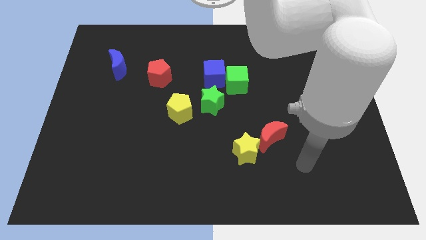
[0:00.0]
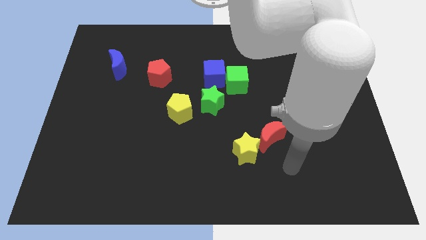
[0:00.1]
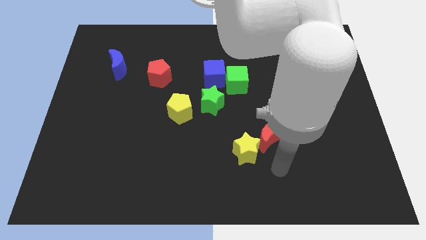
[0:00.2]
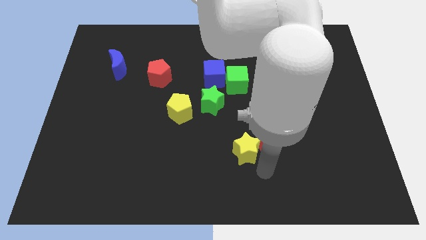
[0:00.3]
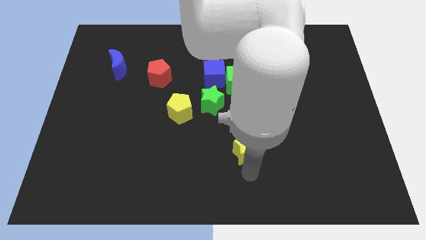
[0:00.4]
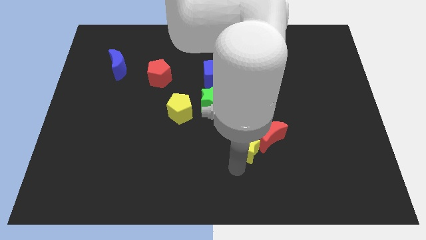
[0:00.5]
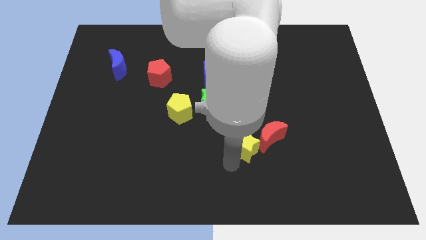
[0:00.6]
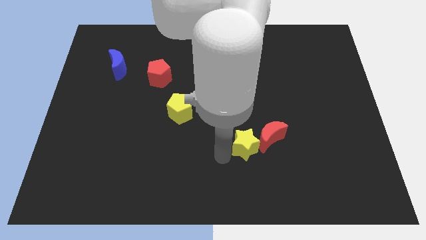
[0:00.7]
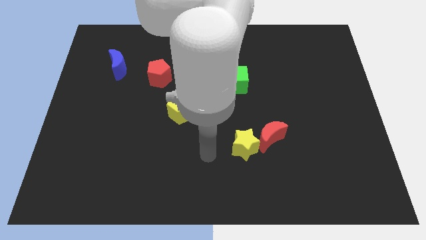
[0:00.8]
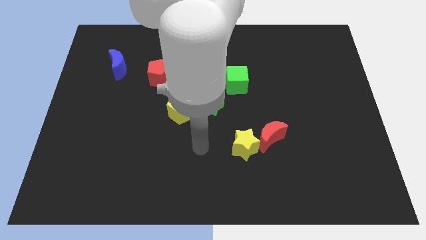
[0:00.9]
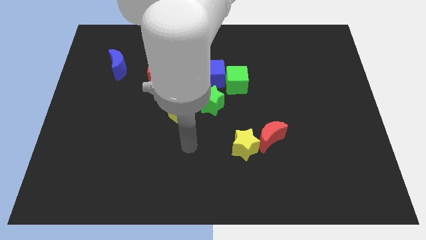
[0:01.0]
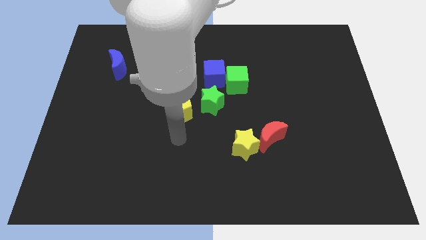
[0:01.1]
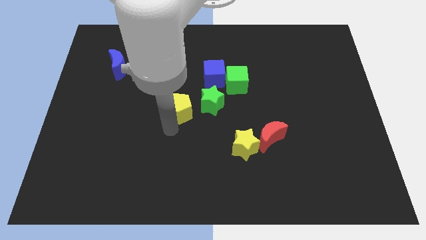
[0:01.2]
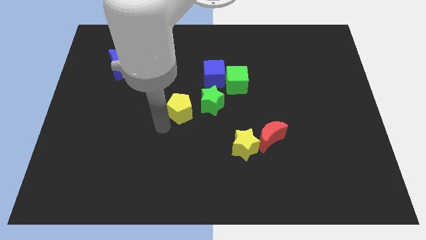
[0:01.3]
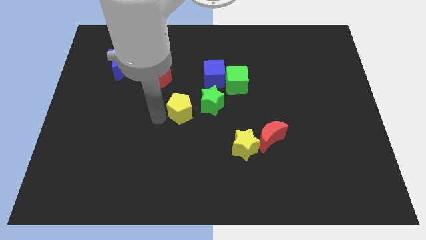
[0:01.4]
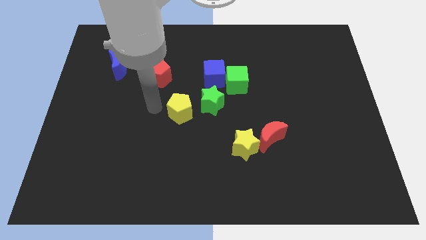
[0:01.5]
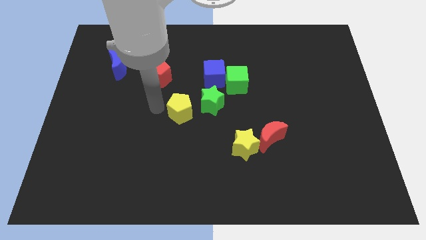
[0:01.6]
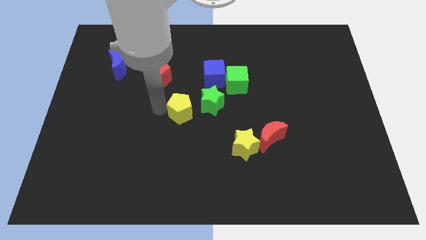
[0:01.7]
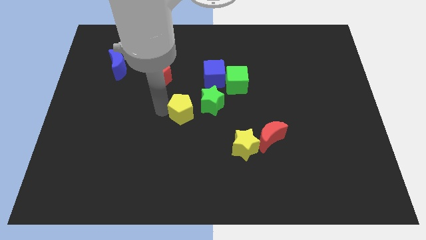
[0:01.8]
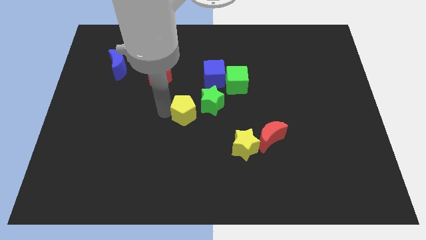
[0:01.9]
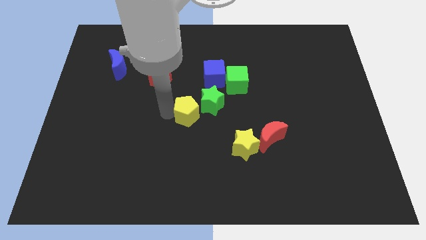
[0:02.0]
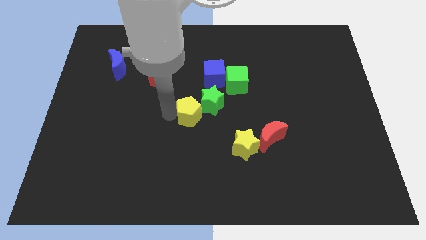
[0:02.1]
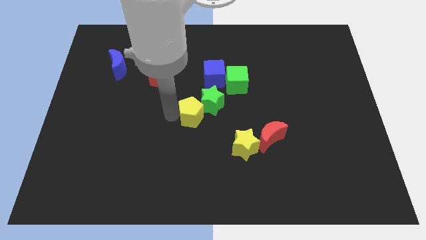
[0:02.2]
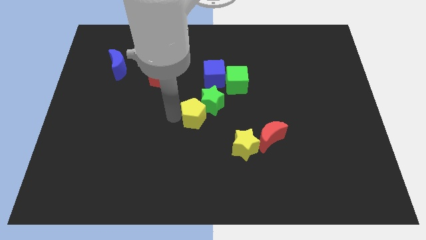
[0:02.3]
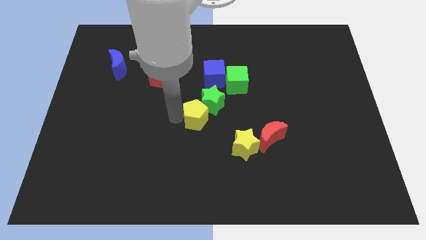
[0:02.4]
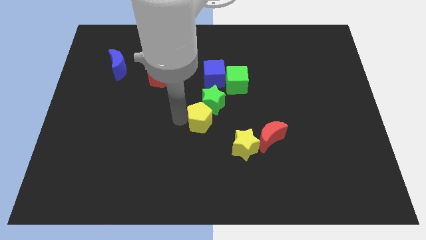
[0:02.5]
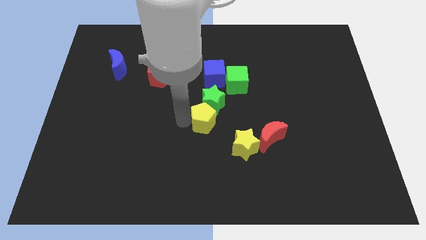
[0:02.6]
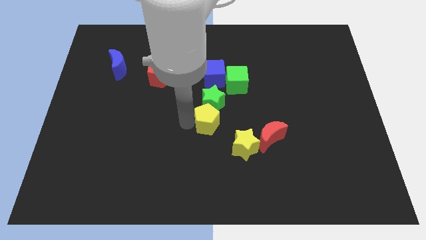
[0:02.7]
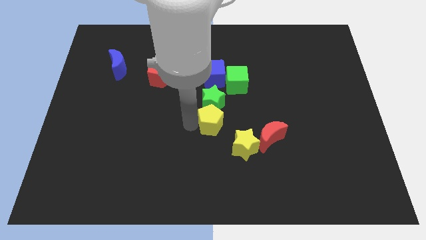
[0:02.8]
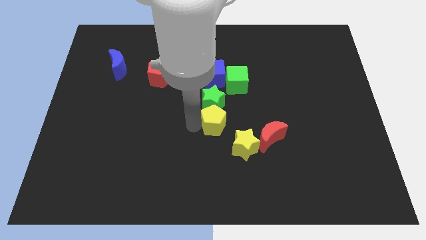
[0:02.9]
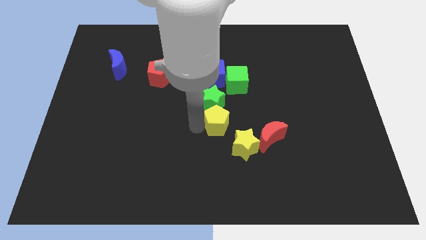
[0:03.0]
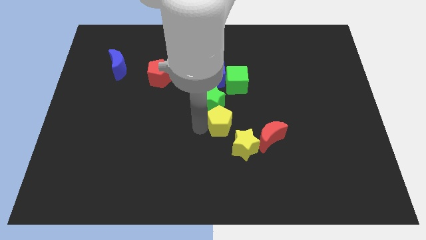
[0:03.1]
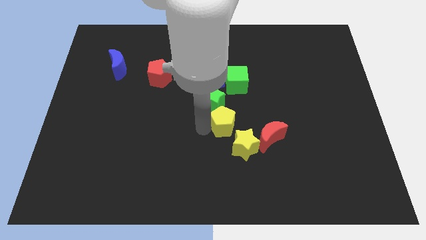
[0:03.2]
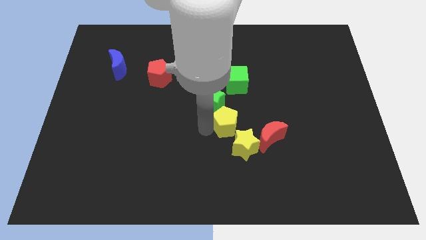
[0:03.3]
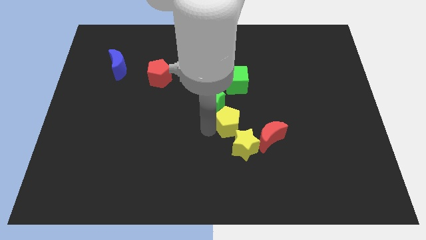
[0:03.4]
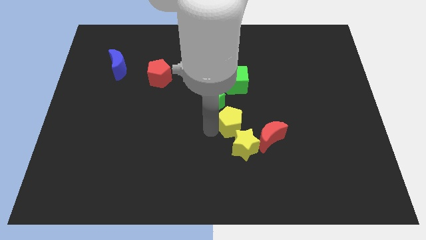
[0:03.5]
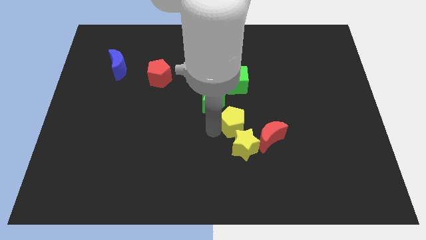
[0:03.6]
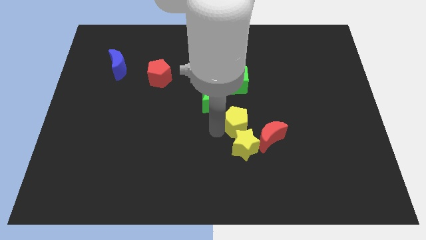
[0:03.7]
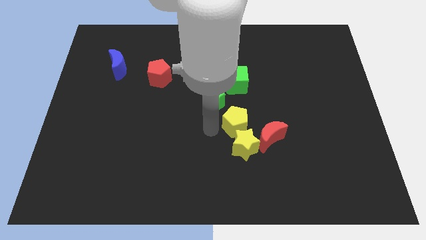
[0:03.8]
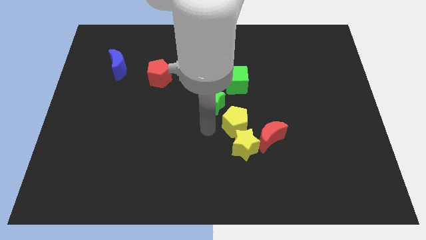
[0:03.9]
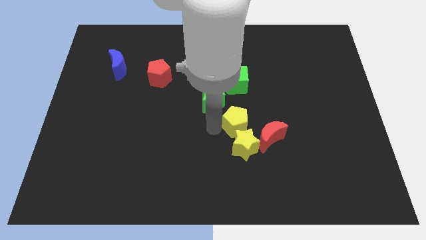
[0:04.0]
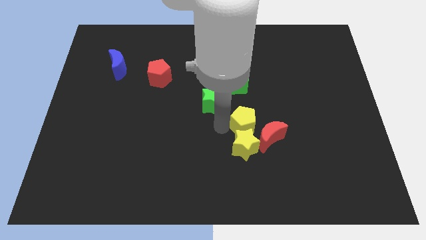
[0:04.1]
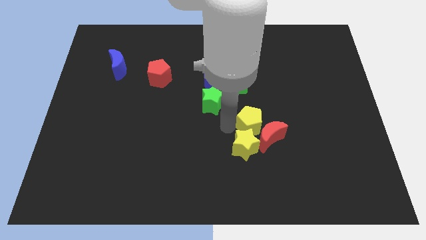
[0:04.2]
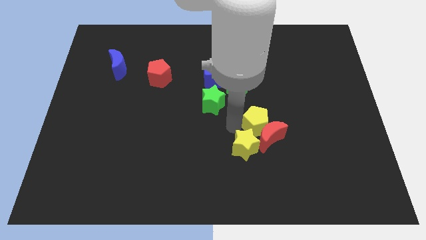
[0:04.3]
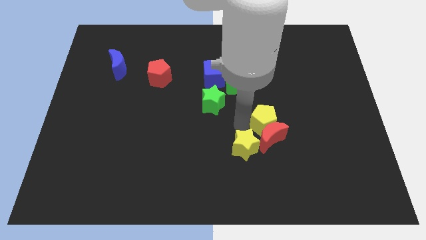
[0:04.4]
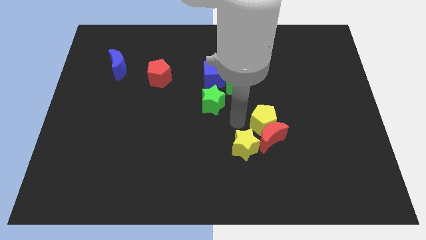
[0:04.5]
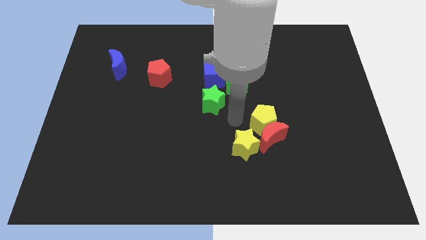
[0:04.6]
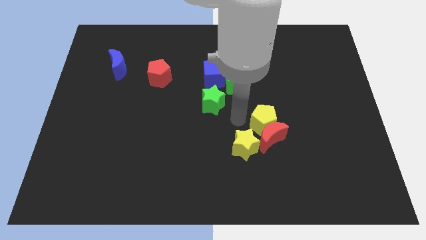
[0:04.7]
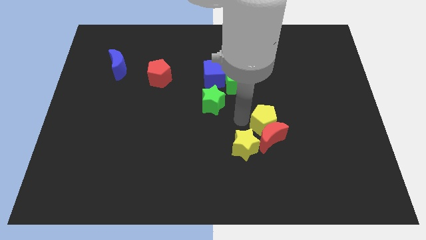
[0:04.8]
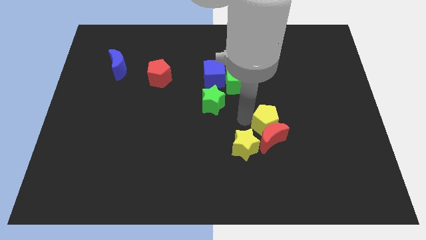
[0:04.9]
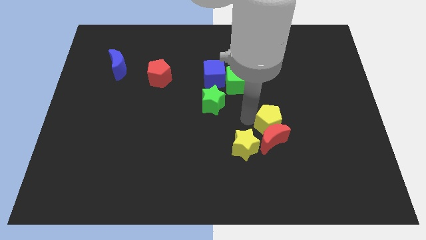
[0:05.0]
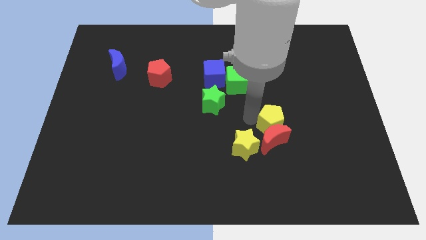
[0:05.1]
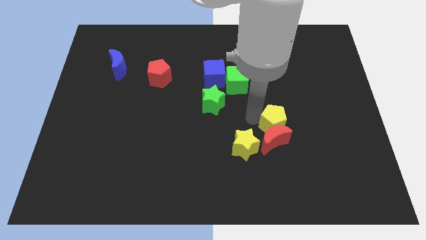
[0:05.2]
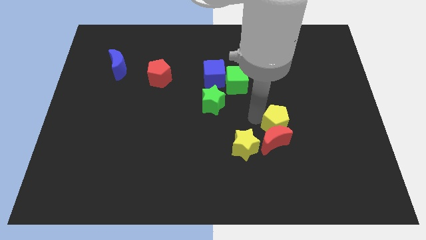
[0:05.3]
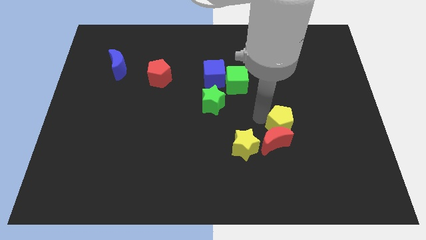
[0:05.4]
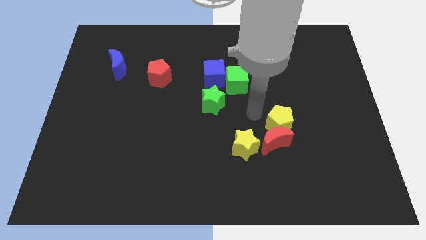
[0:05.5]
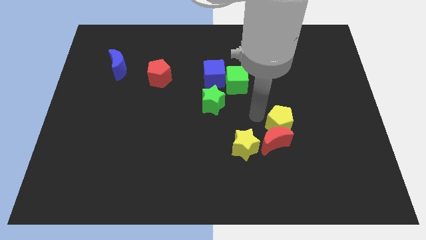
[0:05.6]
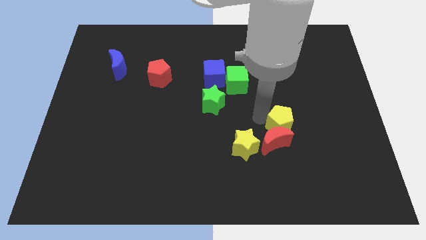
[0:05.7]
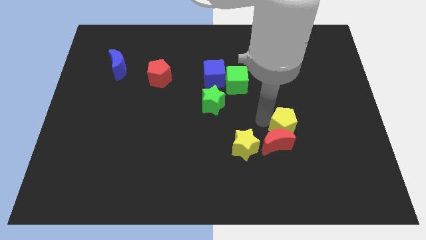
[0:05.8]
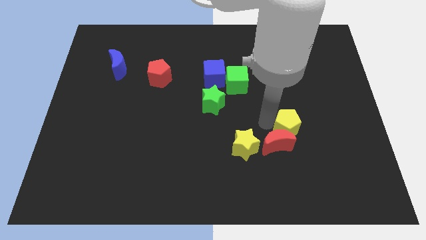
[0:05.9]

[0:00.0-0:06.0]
put the yellow pentagon right of the red moon

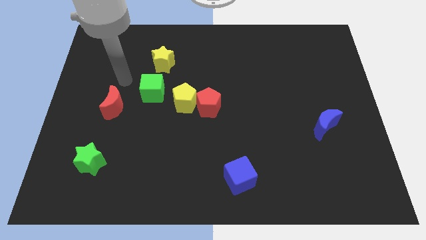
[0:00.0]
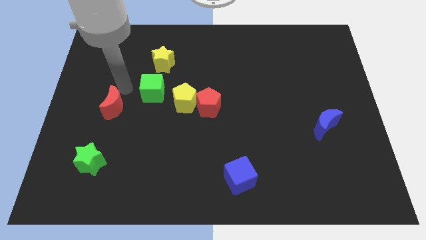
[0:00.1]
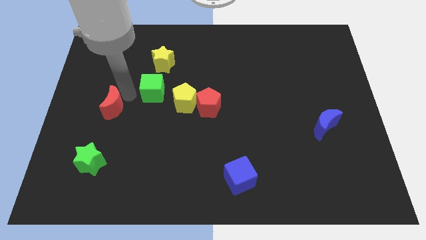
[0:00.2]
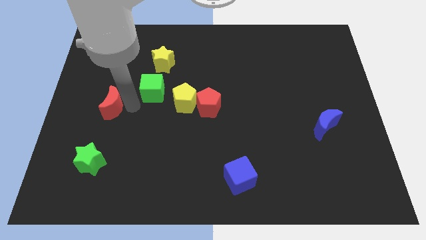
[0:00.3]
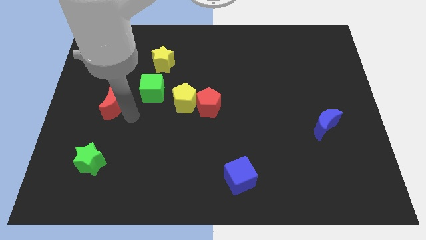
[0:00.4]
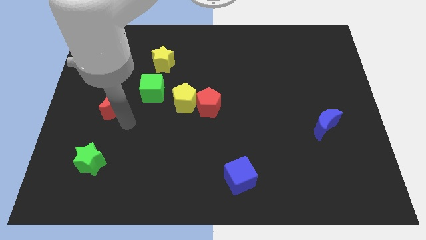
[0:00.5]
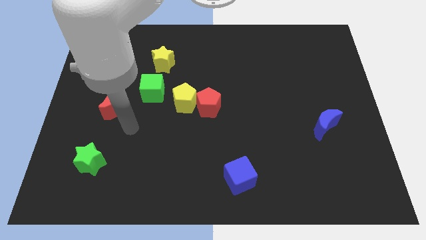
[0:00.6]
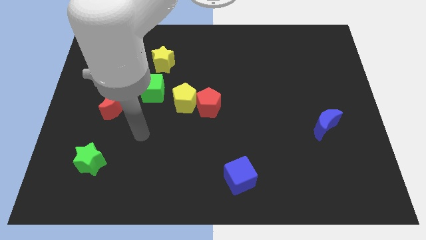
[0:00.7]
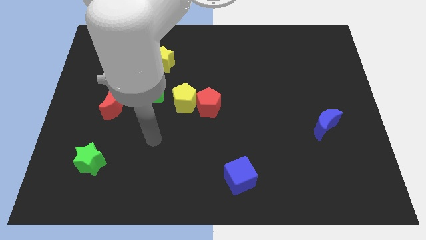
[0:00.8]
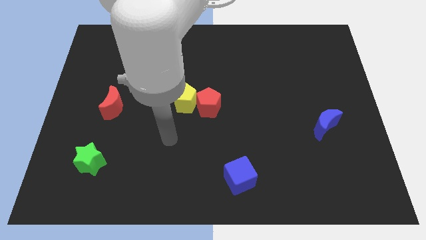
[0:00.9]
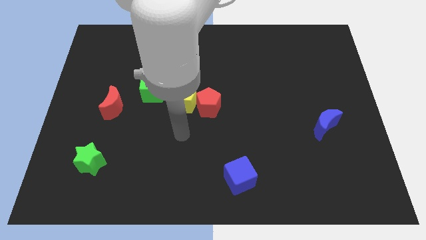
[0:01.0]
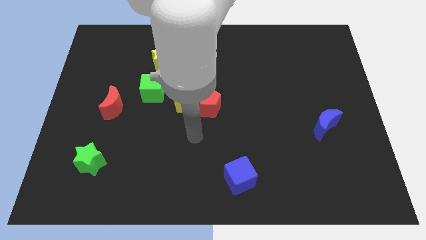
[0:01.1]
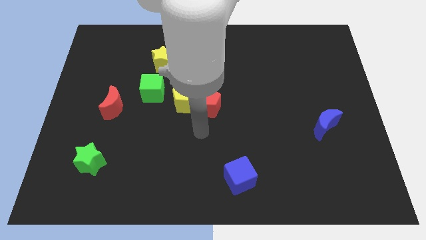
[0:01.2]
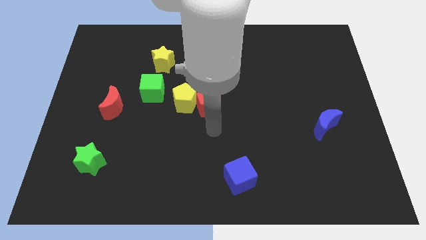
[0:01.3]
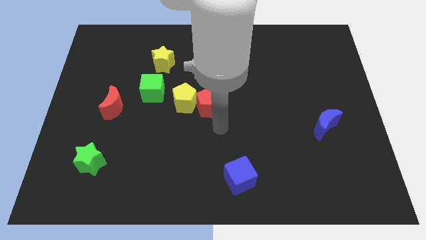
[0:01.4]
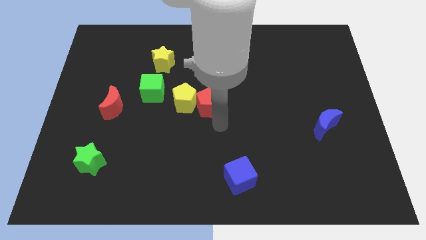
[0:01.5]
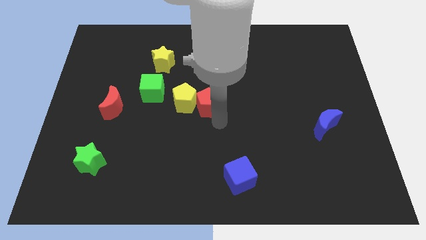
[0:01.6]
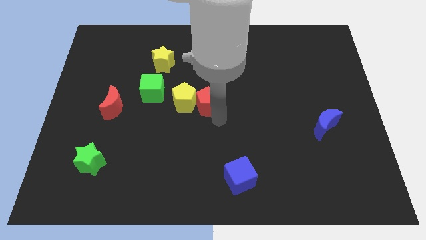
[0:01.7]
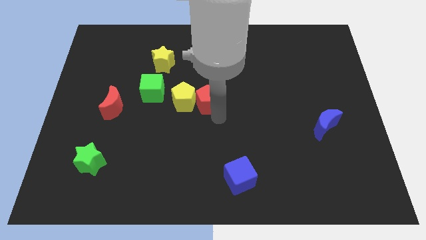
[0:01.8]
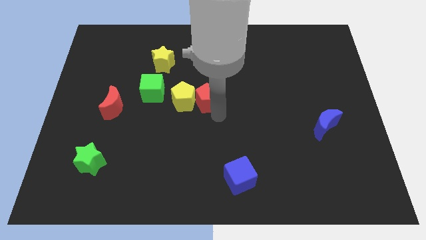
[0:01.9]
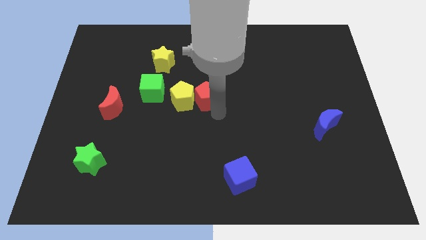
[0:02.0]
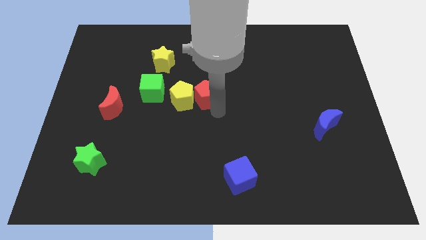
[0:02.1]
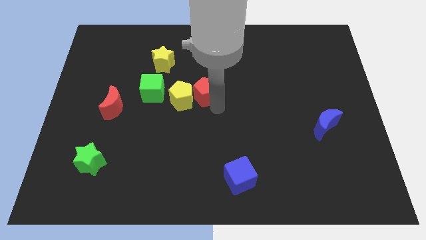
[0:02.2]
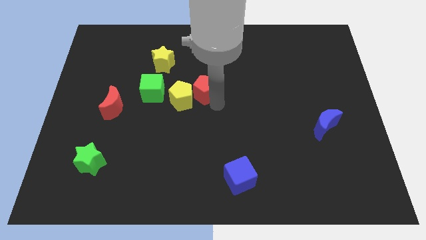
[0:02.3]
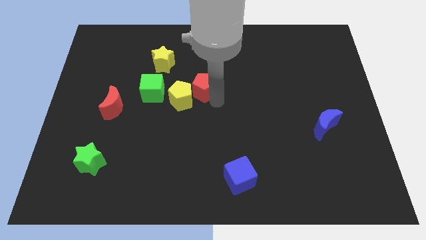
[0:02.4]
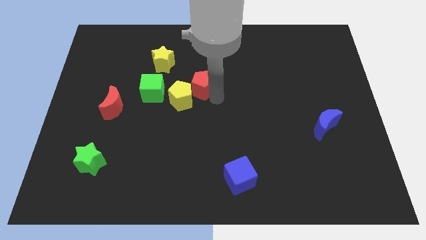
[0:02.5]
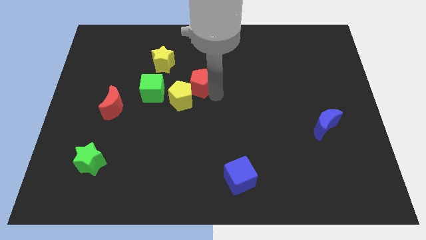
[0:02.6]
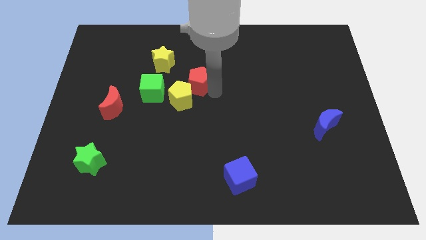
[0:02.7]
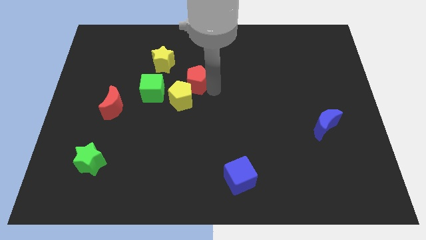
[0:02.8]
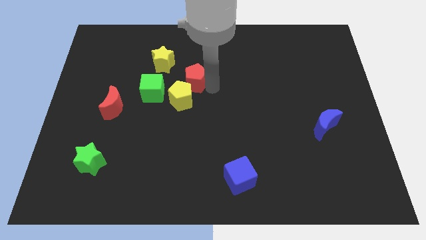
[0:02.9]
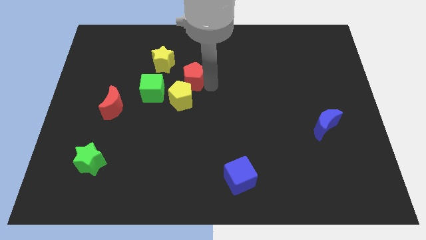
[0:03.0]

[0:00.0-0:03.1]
put the red pentagon to the top right side of the green cube
